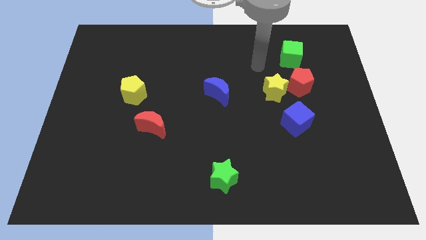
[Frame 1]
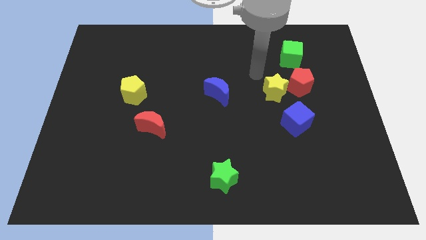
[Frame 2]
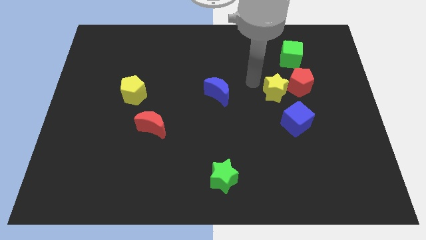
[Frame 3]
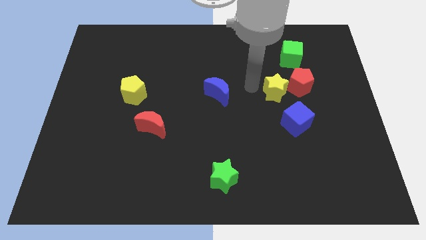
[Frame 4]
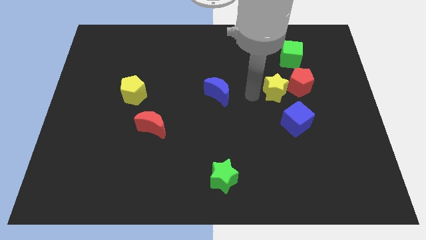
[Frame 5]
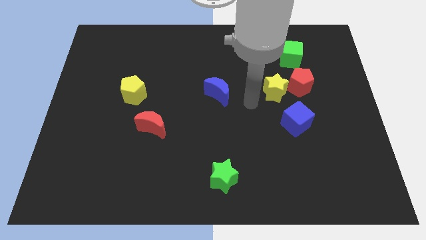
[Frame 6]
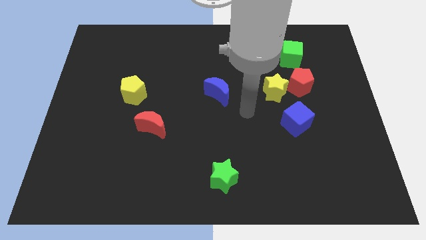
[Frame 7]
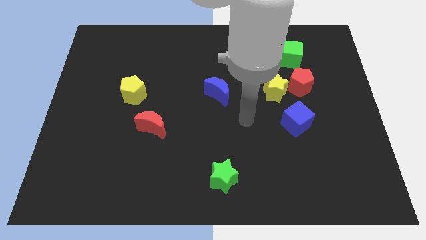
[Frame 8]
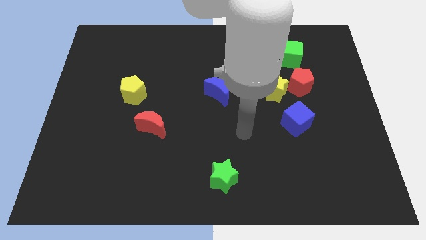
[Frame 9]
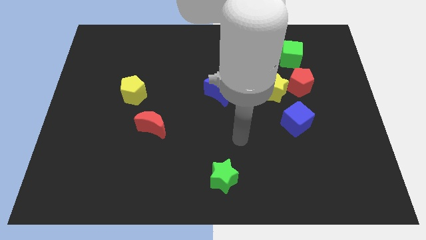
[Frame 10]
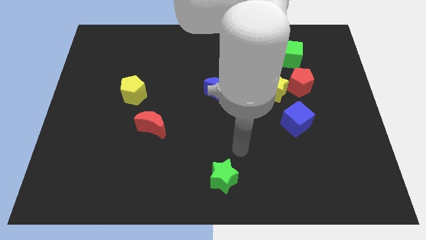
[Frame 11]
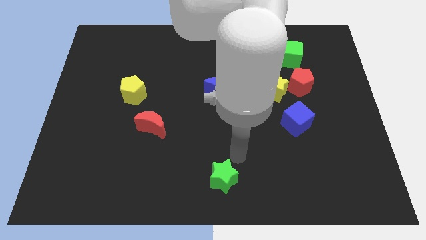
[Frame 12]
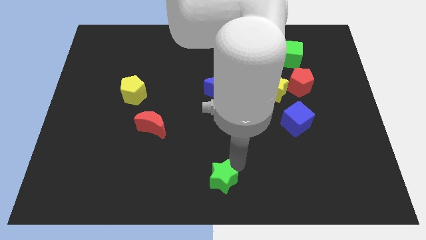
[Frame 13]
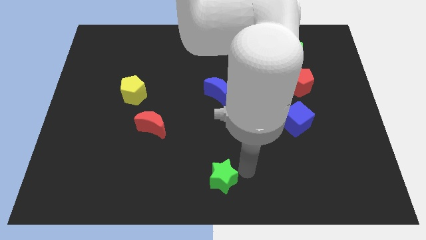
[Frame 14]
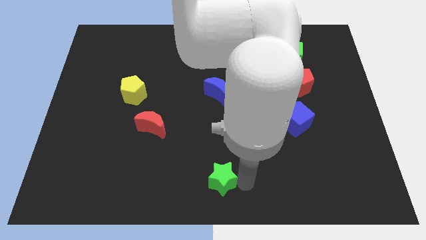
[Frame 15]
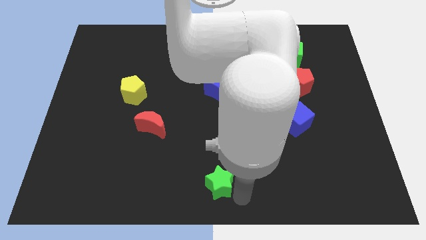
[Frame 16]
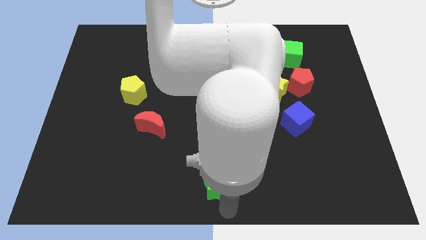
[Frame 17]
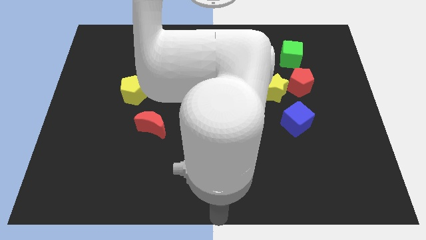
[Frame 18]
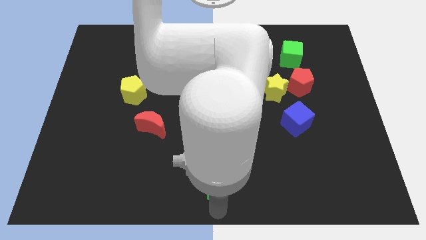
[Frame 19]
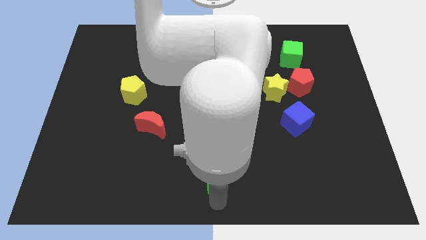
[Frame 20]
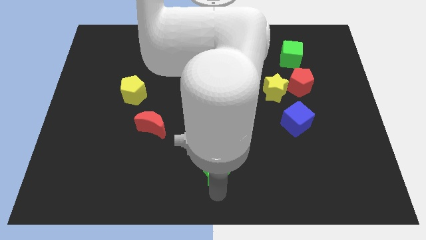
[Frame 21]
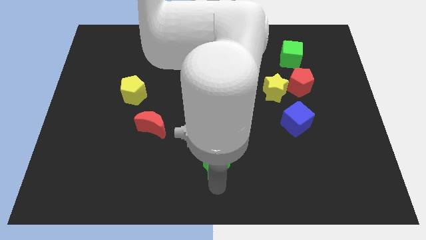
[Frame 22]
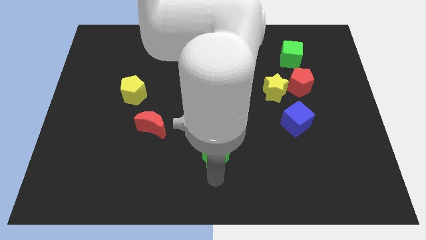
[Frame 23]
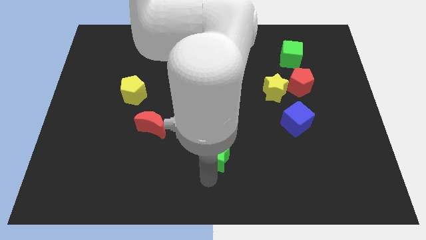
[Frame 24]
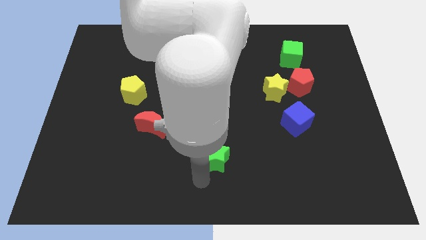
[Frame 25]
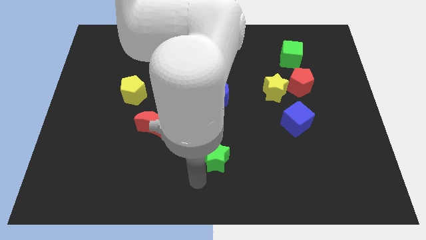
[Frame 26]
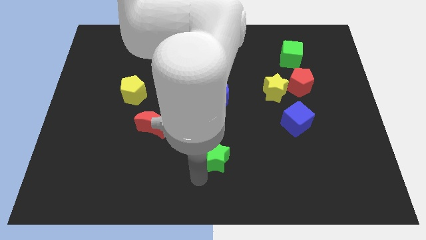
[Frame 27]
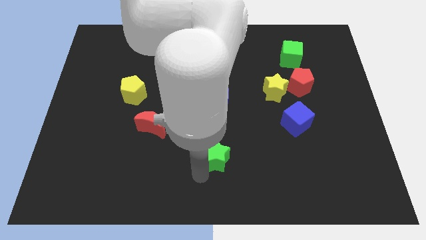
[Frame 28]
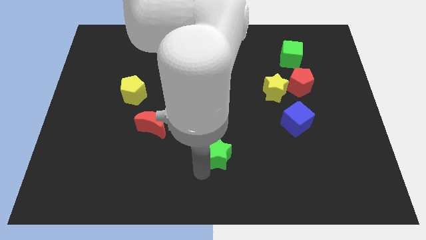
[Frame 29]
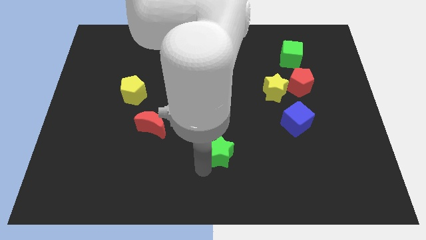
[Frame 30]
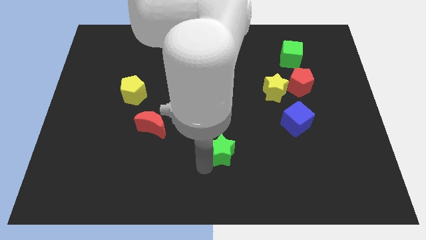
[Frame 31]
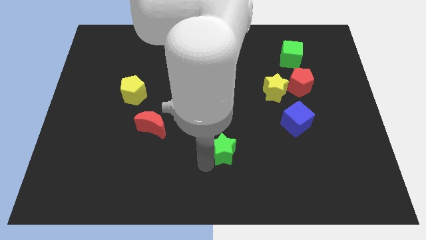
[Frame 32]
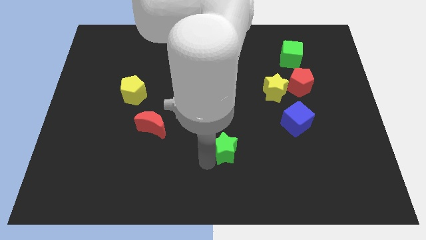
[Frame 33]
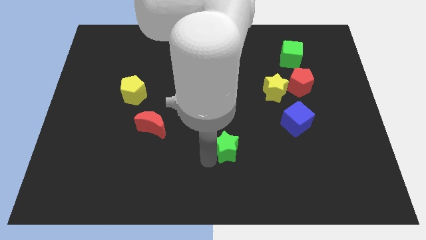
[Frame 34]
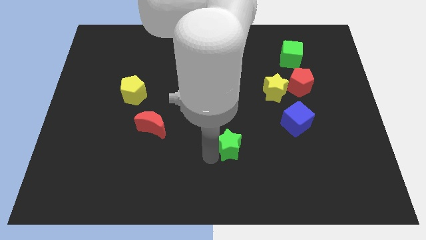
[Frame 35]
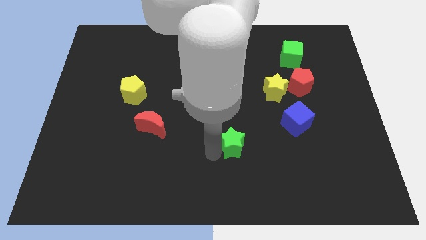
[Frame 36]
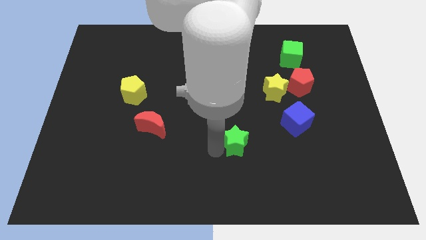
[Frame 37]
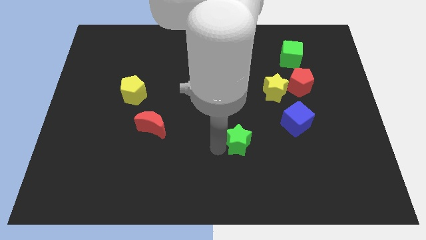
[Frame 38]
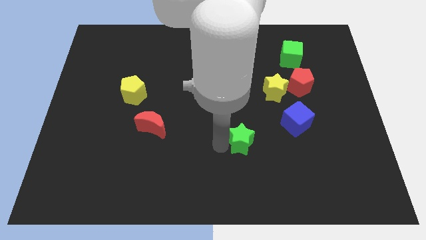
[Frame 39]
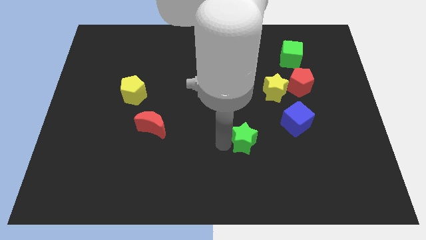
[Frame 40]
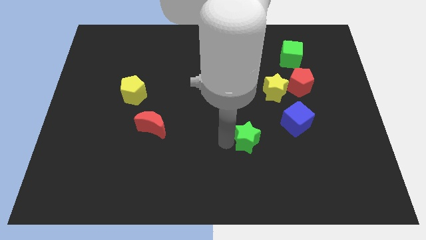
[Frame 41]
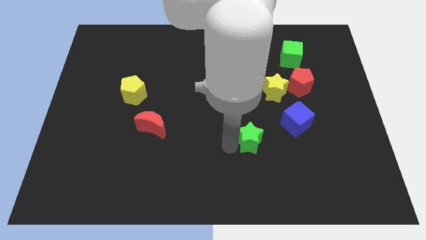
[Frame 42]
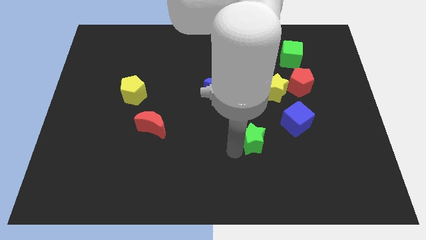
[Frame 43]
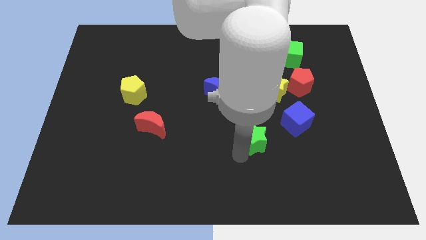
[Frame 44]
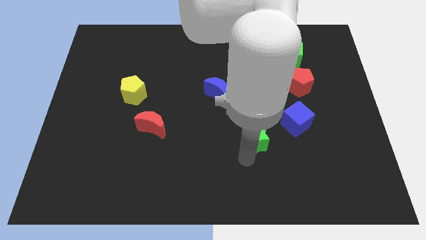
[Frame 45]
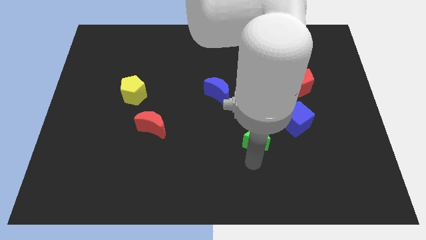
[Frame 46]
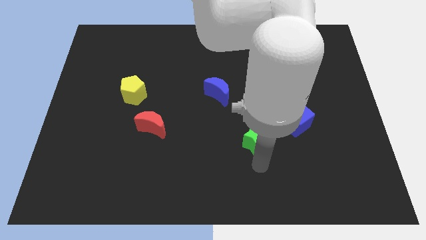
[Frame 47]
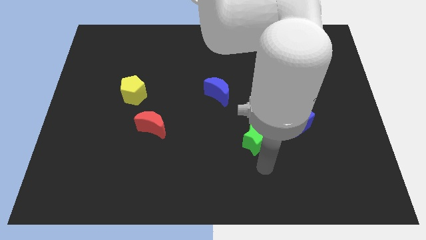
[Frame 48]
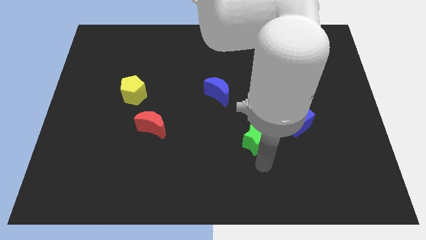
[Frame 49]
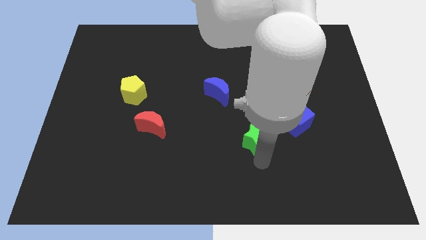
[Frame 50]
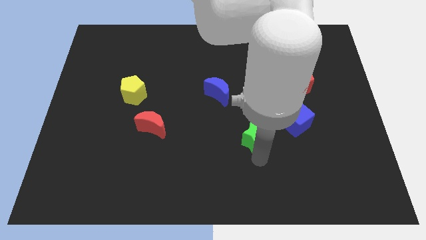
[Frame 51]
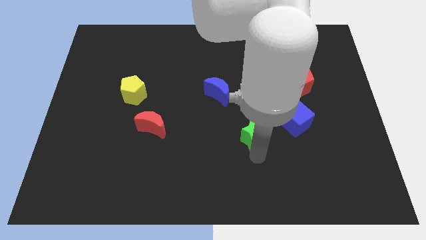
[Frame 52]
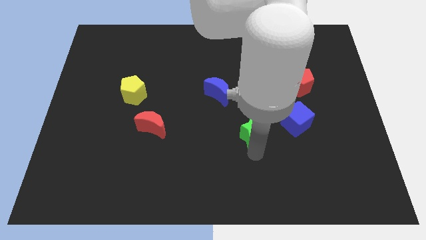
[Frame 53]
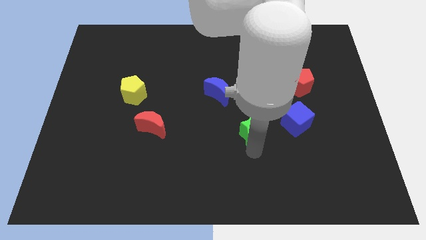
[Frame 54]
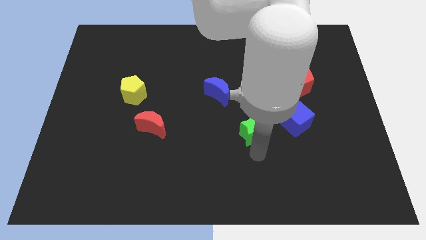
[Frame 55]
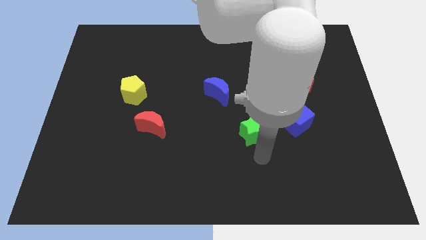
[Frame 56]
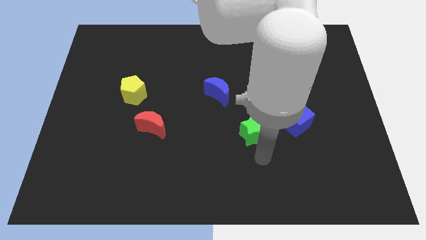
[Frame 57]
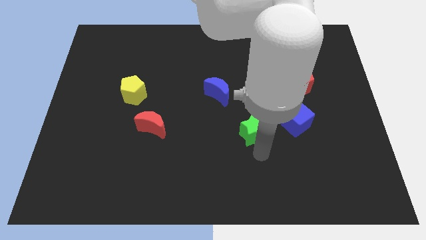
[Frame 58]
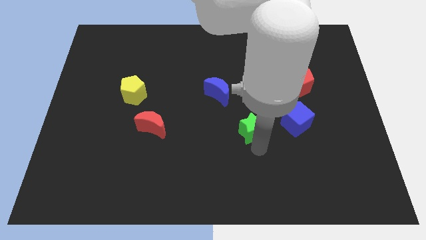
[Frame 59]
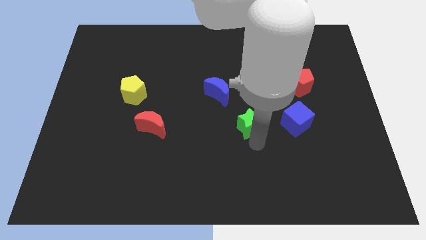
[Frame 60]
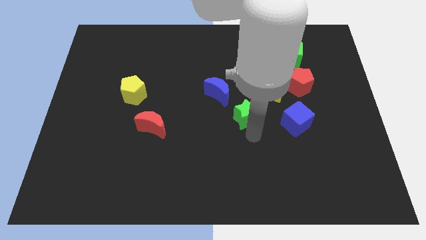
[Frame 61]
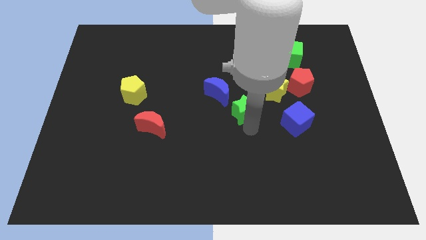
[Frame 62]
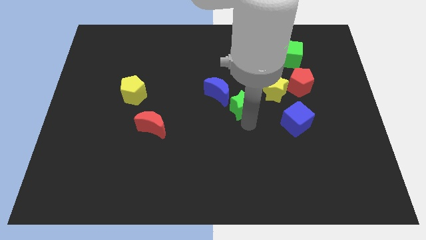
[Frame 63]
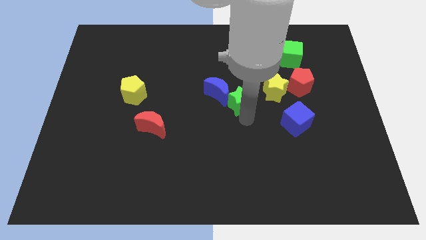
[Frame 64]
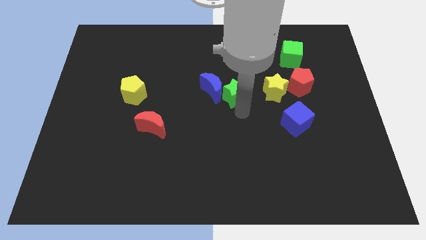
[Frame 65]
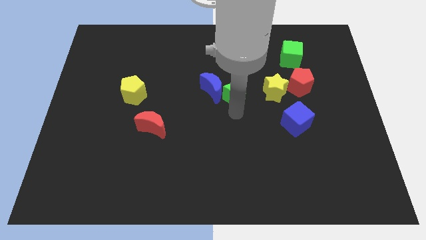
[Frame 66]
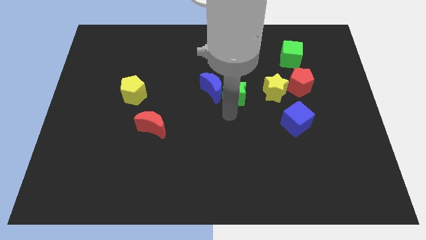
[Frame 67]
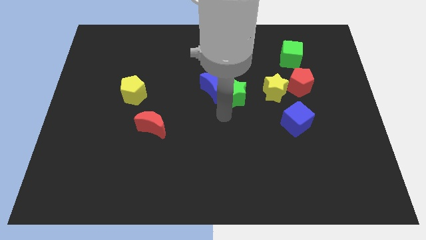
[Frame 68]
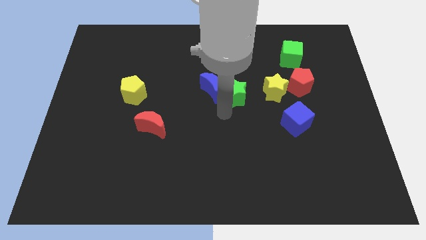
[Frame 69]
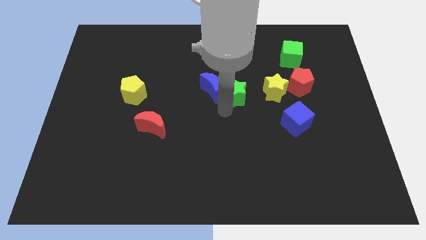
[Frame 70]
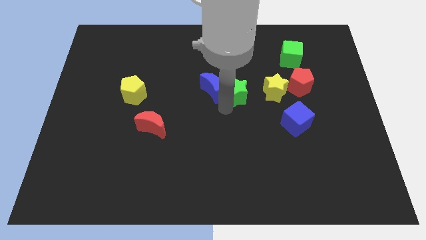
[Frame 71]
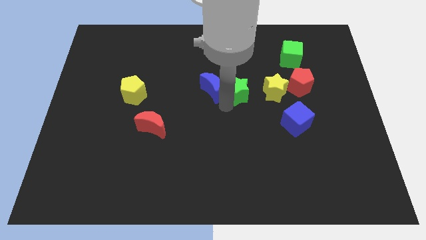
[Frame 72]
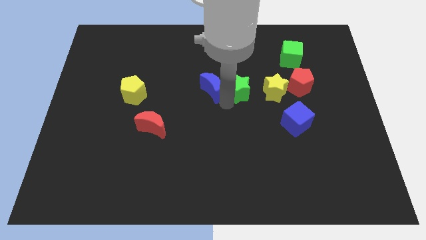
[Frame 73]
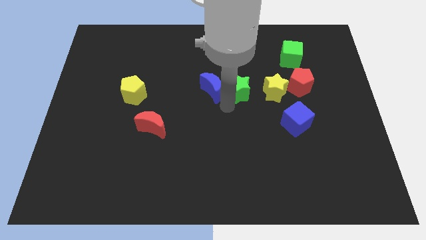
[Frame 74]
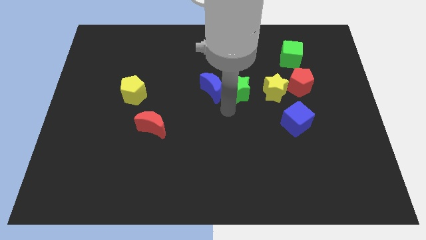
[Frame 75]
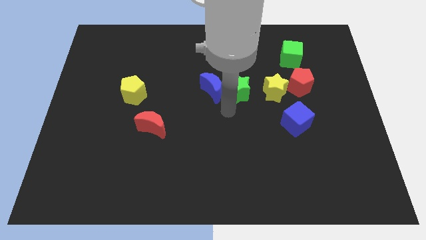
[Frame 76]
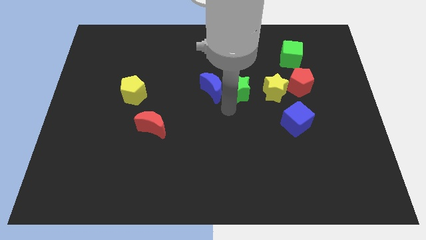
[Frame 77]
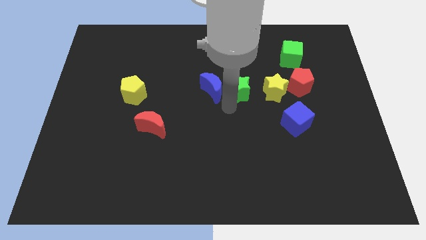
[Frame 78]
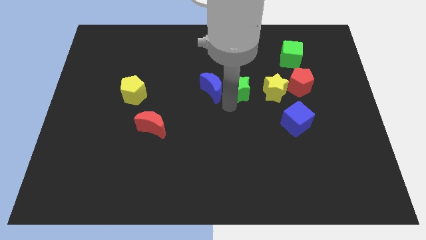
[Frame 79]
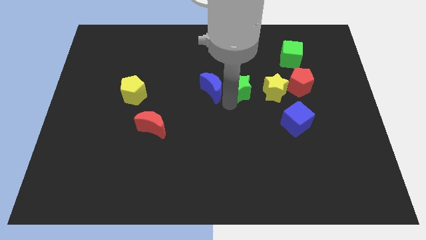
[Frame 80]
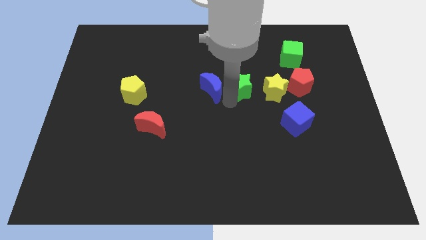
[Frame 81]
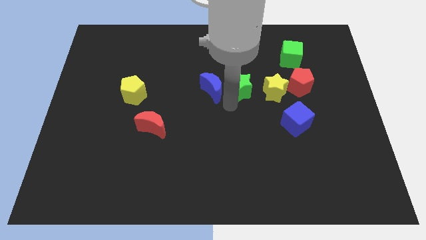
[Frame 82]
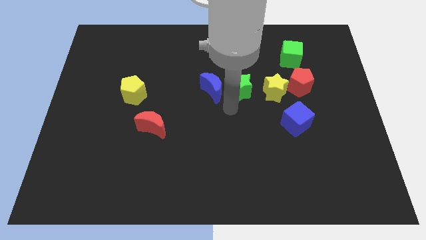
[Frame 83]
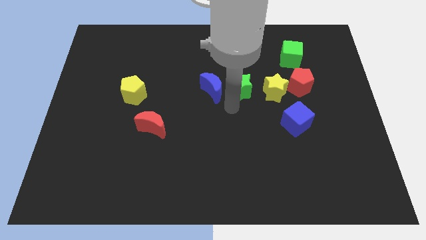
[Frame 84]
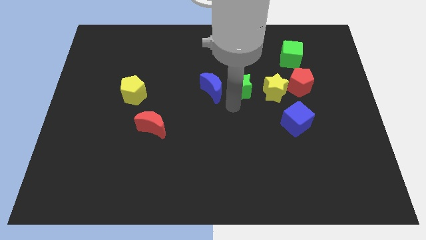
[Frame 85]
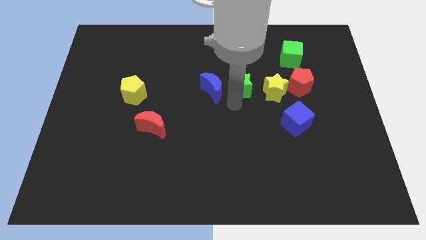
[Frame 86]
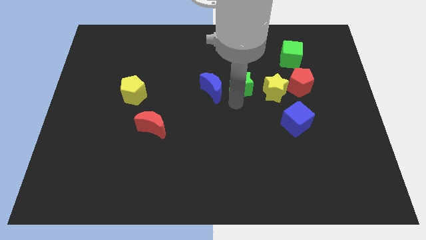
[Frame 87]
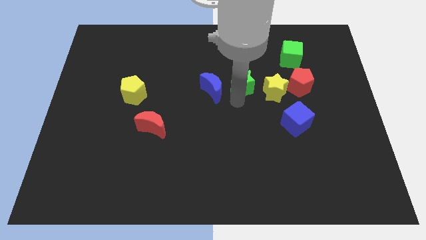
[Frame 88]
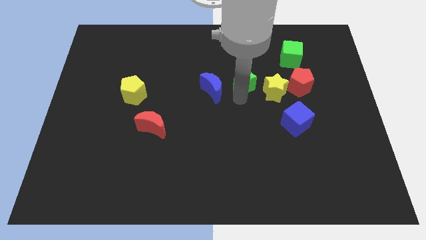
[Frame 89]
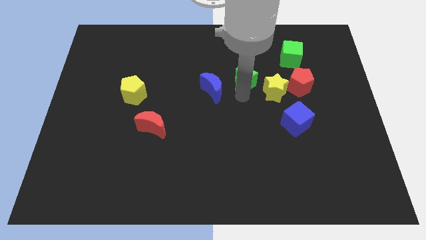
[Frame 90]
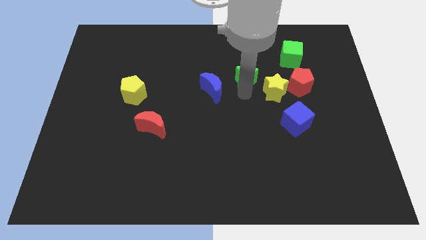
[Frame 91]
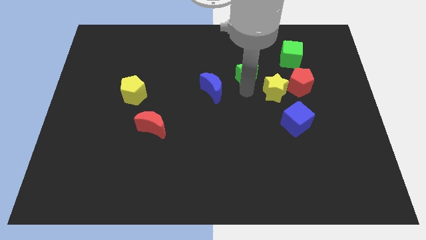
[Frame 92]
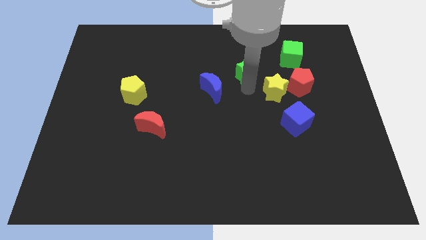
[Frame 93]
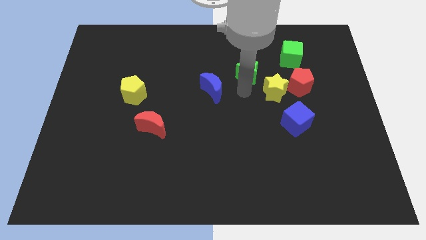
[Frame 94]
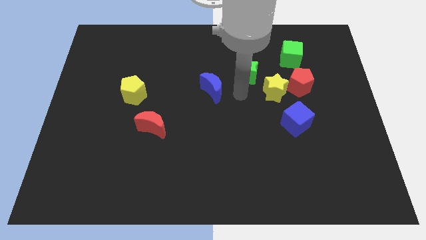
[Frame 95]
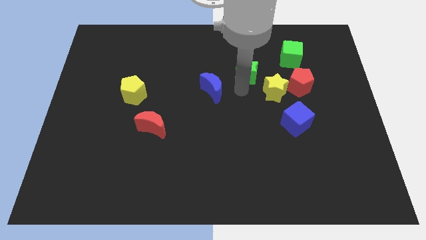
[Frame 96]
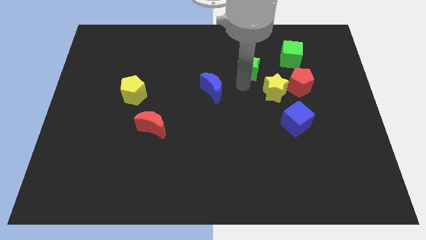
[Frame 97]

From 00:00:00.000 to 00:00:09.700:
put the green star to the left of the green cube
